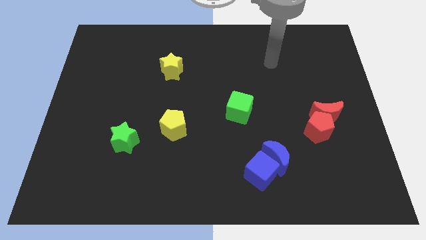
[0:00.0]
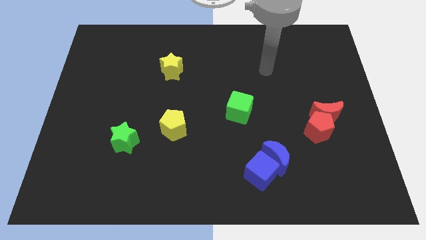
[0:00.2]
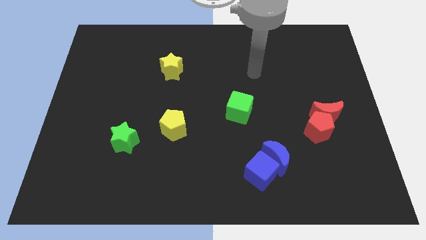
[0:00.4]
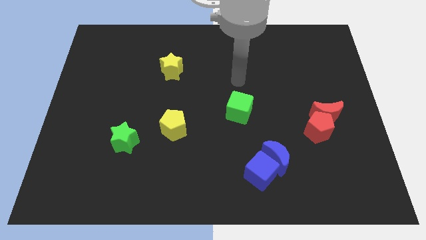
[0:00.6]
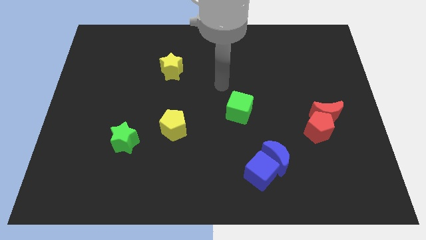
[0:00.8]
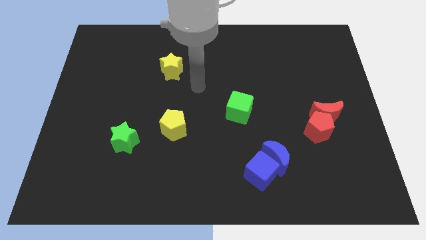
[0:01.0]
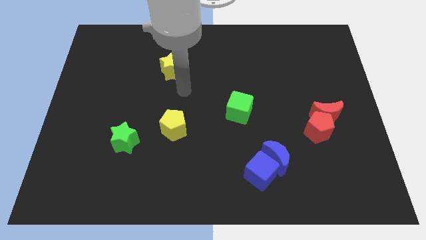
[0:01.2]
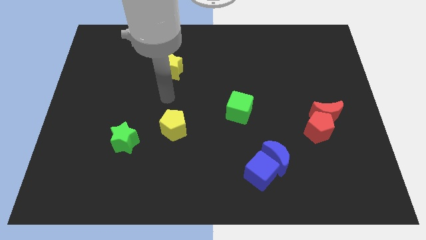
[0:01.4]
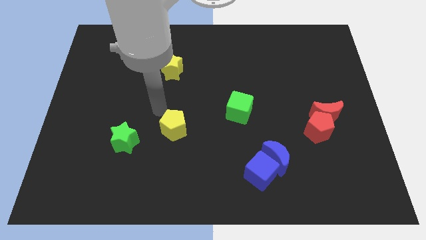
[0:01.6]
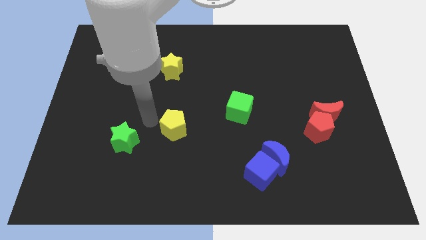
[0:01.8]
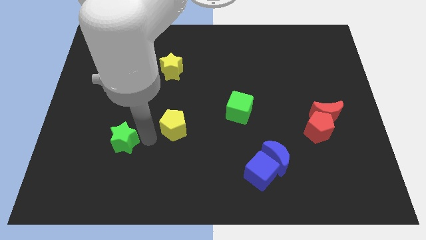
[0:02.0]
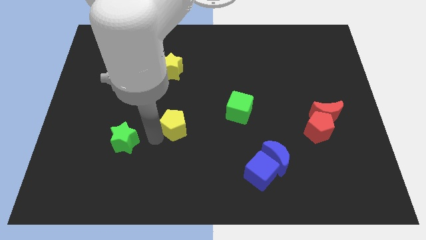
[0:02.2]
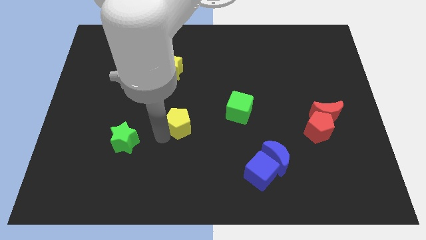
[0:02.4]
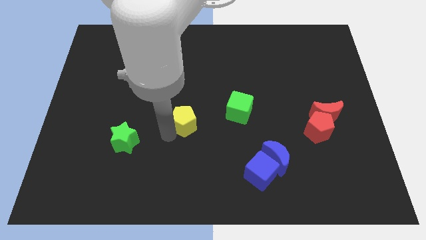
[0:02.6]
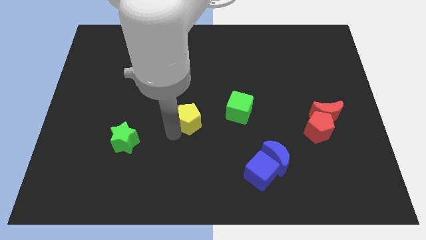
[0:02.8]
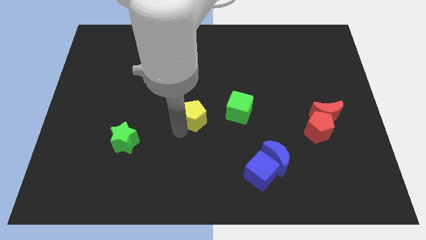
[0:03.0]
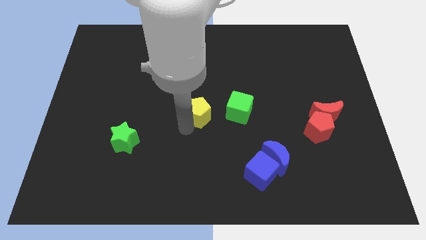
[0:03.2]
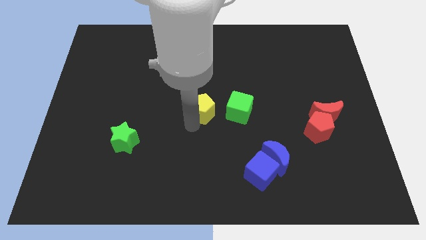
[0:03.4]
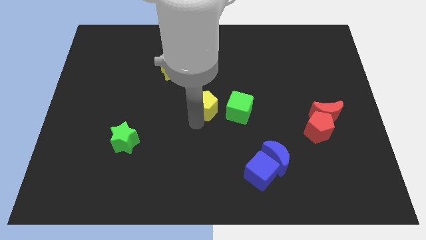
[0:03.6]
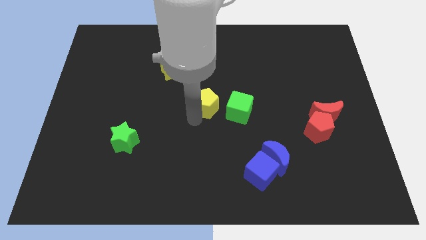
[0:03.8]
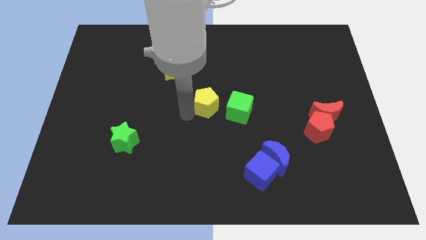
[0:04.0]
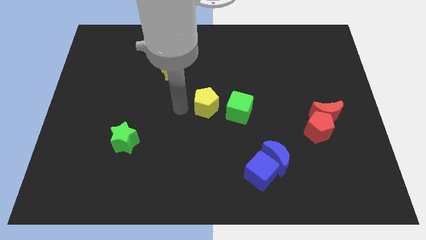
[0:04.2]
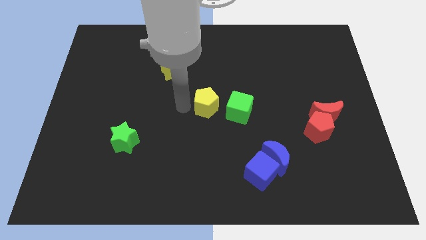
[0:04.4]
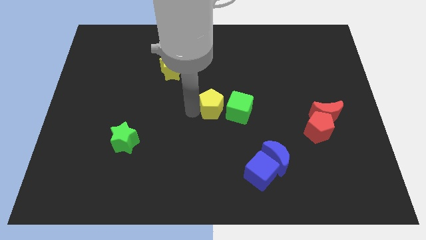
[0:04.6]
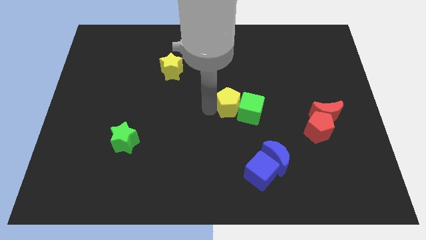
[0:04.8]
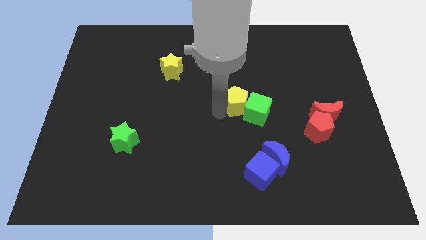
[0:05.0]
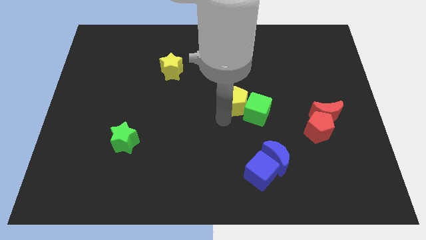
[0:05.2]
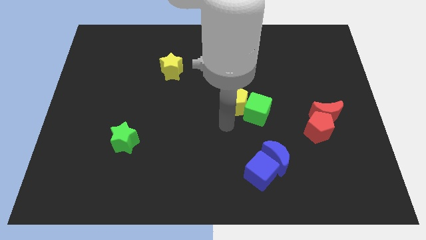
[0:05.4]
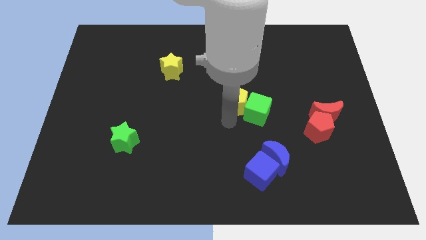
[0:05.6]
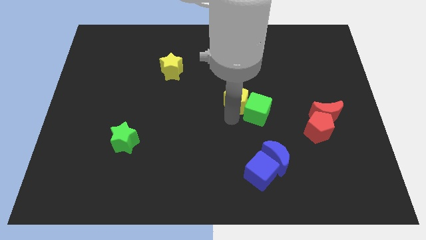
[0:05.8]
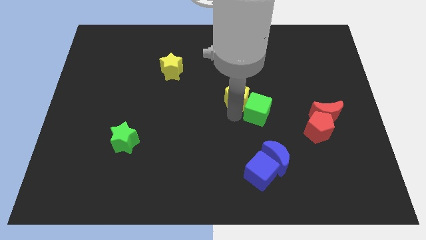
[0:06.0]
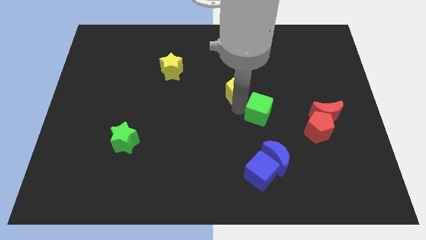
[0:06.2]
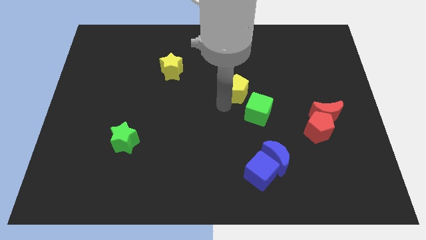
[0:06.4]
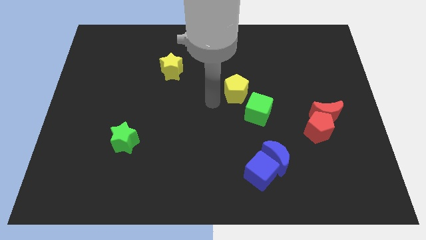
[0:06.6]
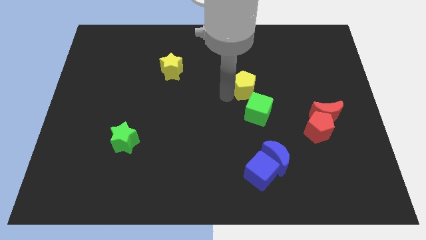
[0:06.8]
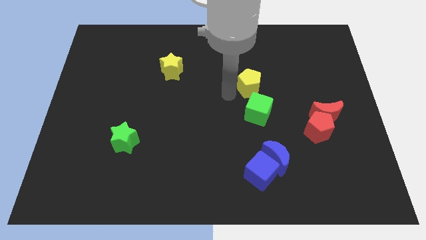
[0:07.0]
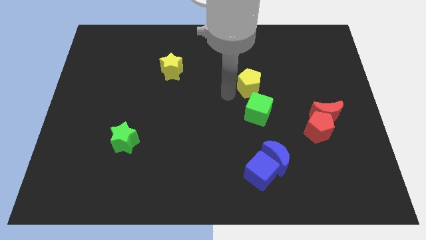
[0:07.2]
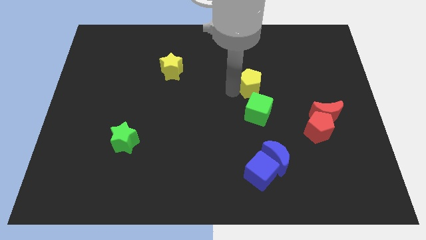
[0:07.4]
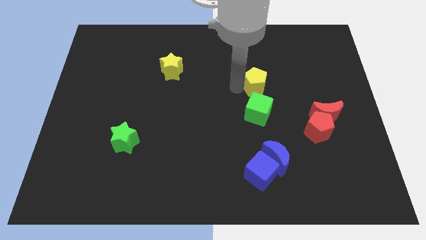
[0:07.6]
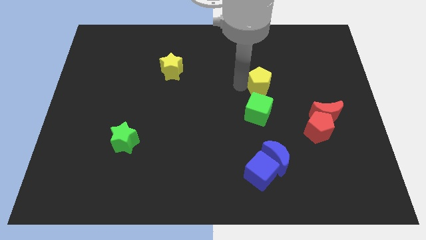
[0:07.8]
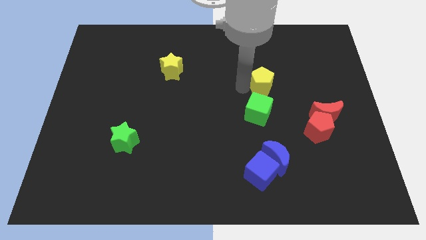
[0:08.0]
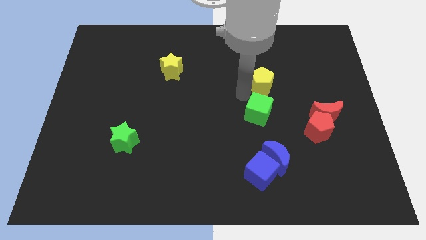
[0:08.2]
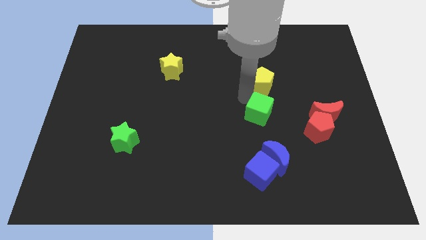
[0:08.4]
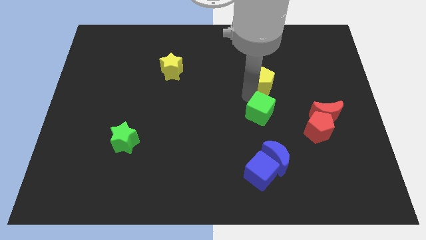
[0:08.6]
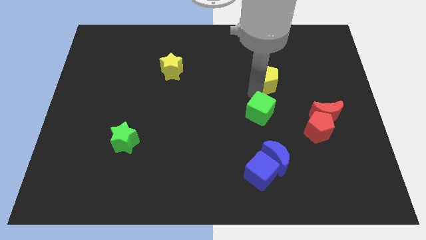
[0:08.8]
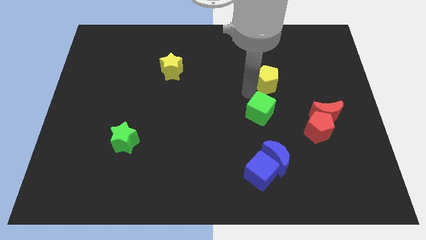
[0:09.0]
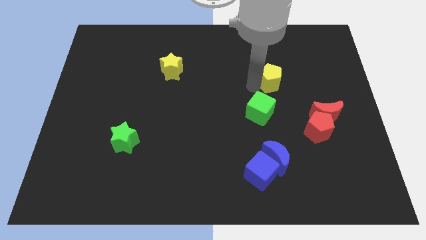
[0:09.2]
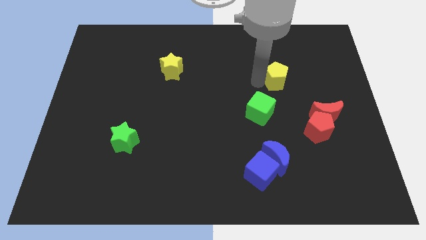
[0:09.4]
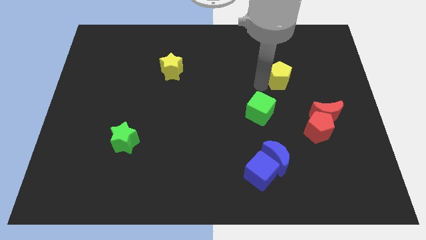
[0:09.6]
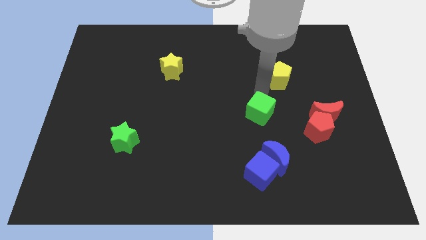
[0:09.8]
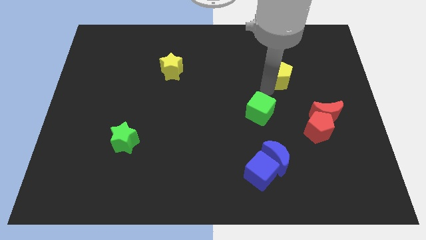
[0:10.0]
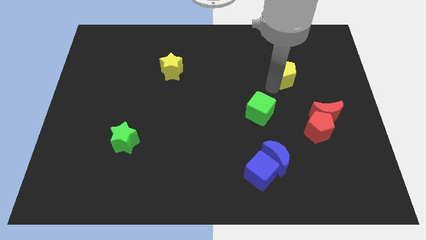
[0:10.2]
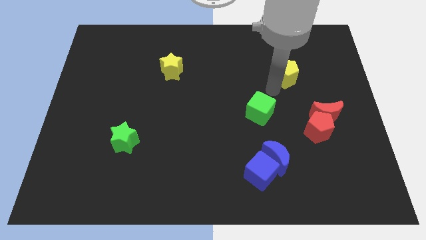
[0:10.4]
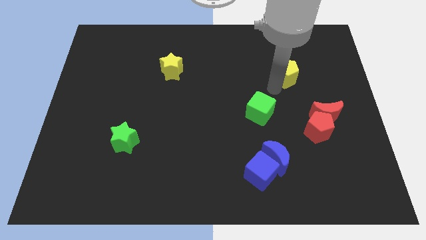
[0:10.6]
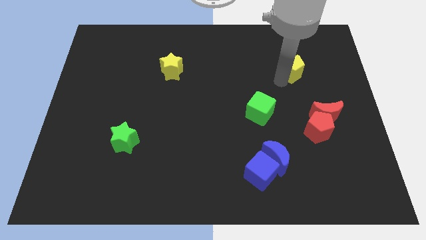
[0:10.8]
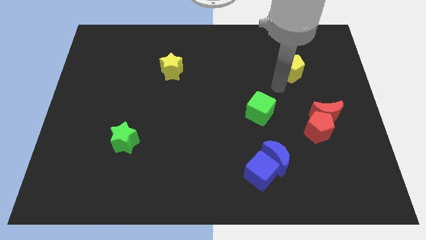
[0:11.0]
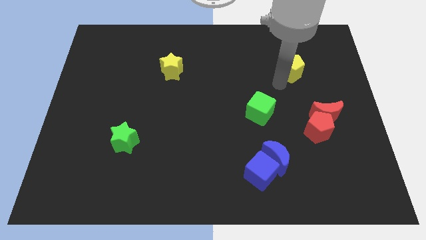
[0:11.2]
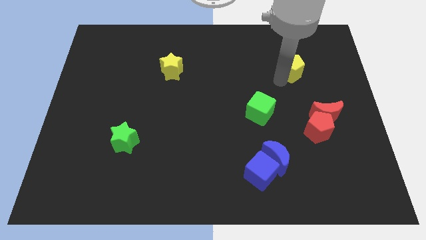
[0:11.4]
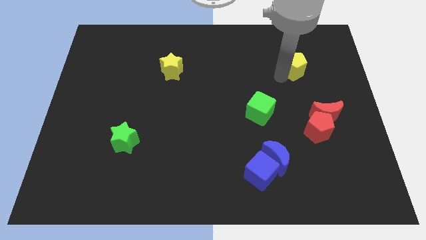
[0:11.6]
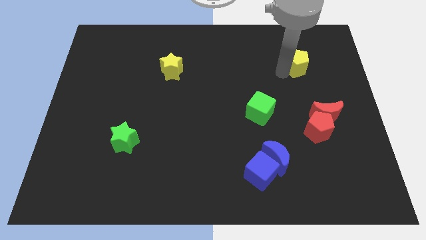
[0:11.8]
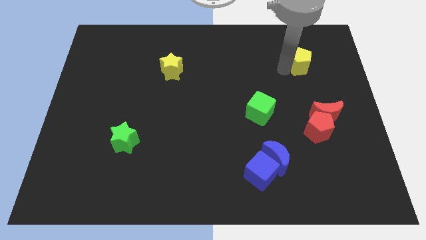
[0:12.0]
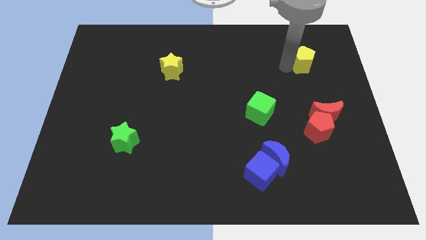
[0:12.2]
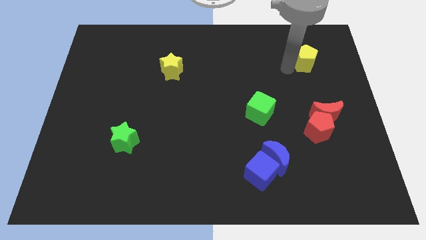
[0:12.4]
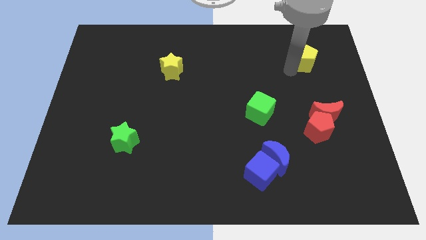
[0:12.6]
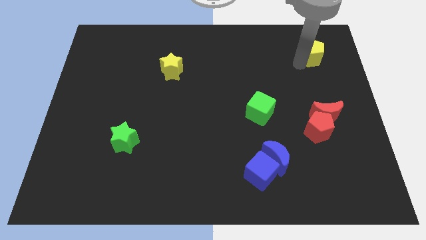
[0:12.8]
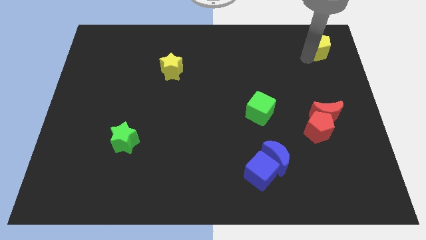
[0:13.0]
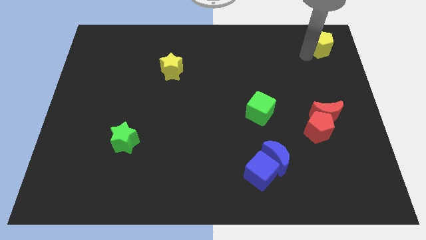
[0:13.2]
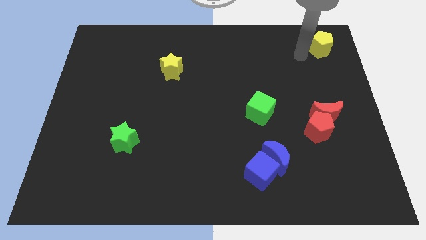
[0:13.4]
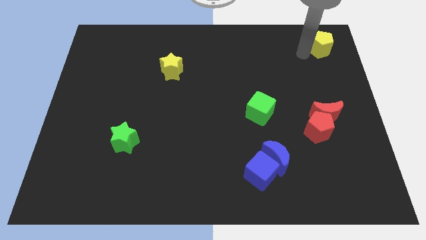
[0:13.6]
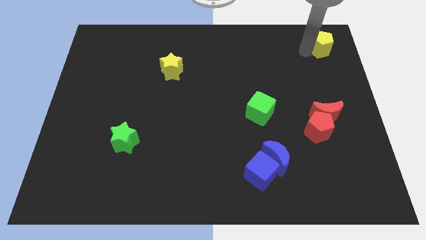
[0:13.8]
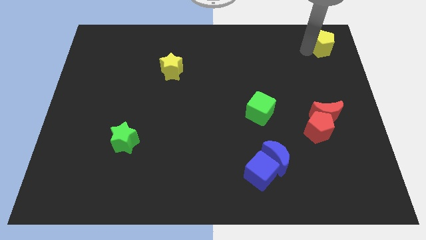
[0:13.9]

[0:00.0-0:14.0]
put the yellow pentagon to the top right
